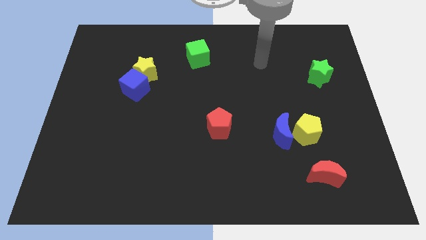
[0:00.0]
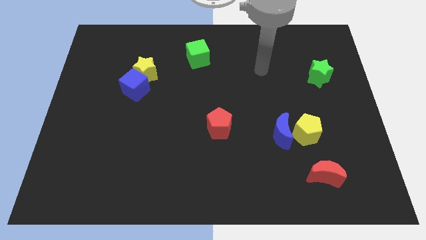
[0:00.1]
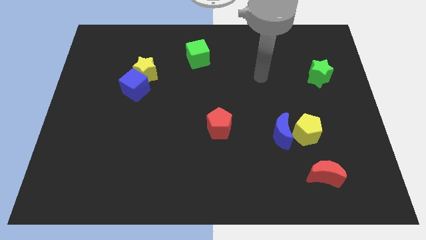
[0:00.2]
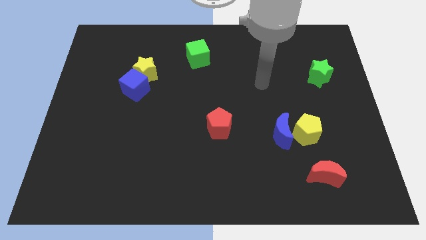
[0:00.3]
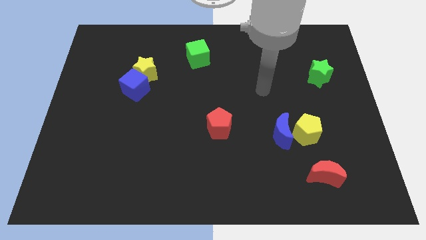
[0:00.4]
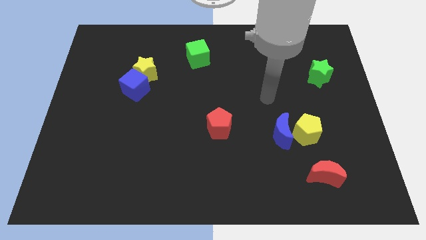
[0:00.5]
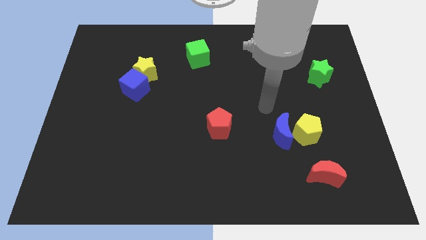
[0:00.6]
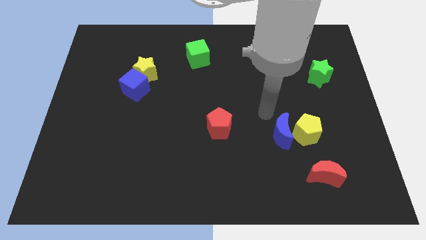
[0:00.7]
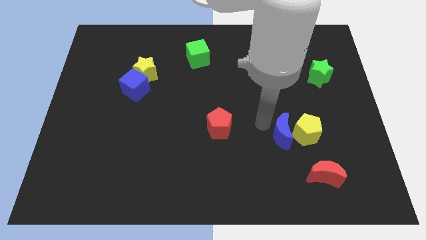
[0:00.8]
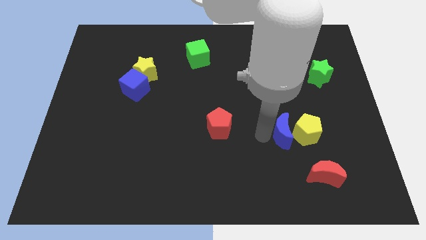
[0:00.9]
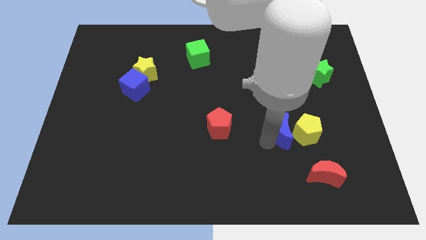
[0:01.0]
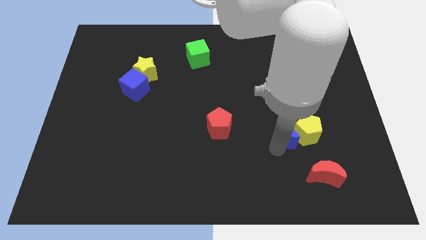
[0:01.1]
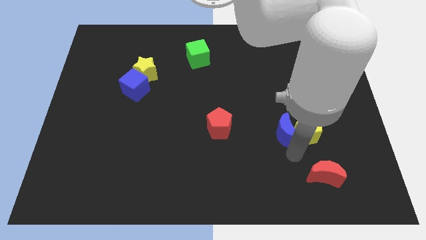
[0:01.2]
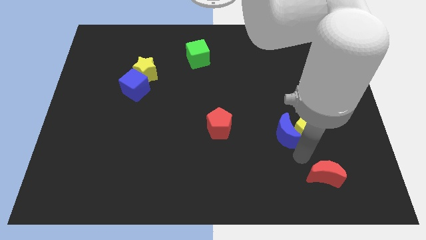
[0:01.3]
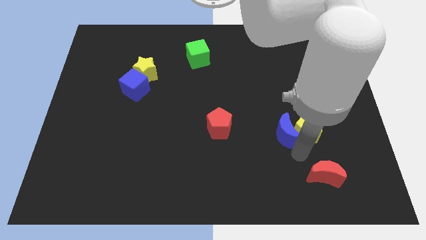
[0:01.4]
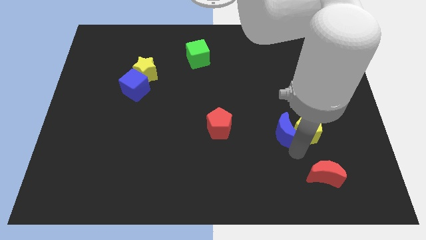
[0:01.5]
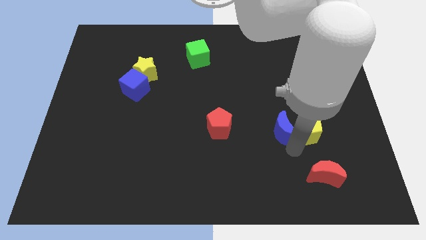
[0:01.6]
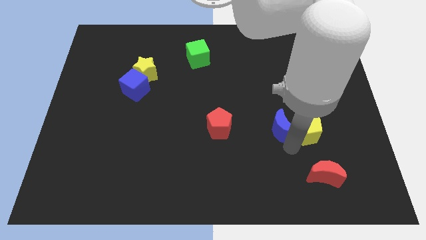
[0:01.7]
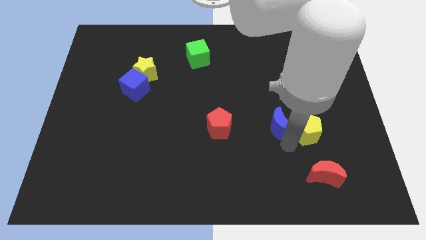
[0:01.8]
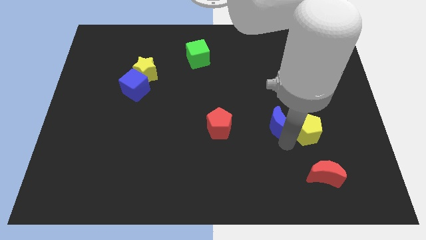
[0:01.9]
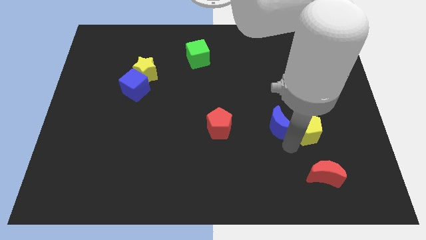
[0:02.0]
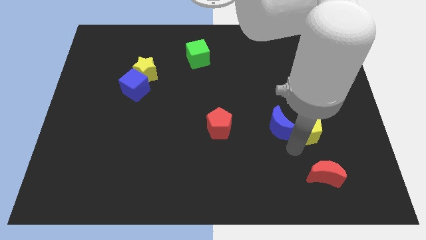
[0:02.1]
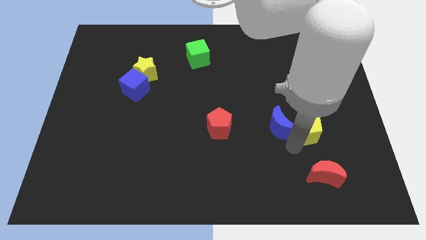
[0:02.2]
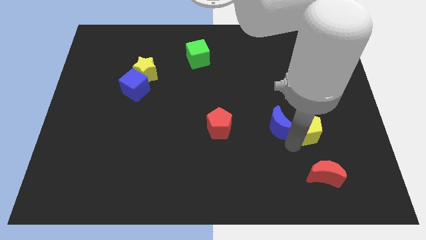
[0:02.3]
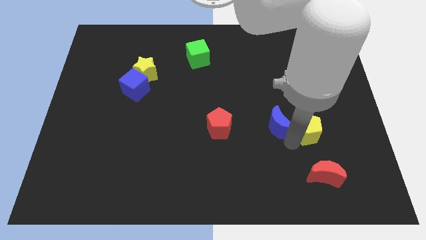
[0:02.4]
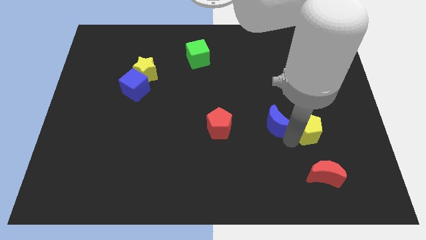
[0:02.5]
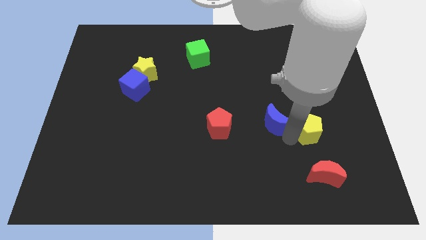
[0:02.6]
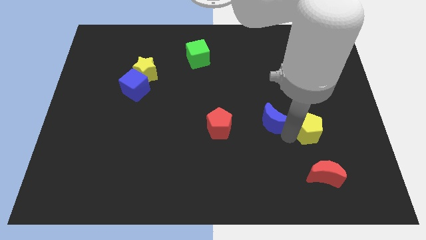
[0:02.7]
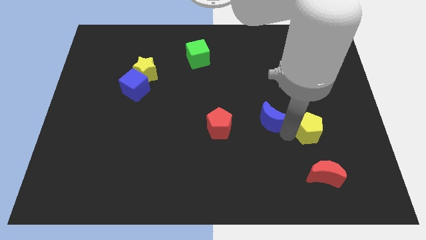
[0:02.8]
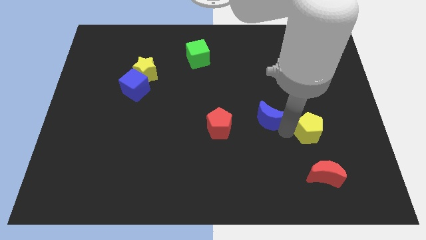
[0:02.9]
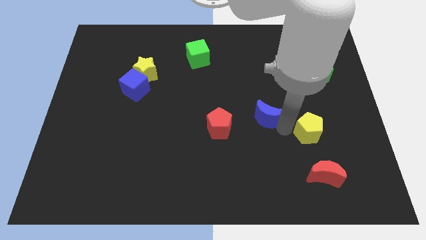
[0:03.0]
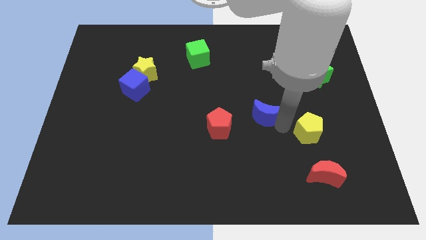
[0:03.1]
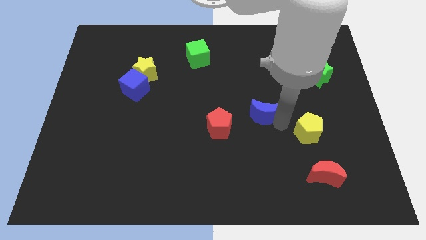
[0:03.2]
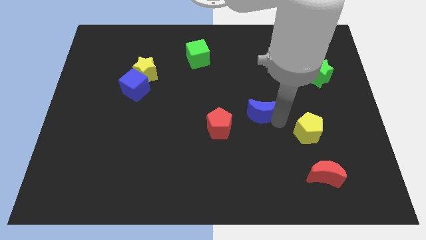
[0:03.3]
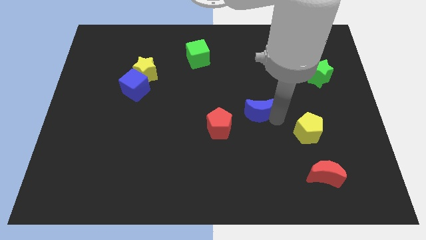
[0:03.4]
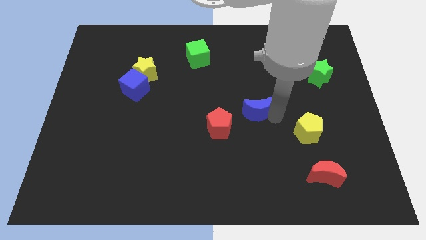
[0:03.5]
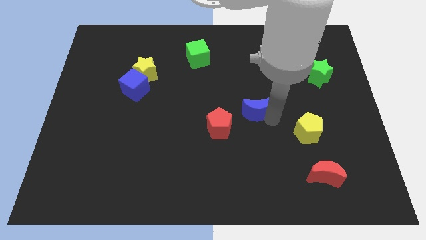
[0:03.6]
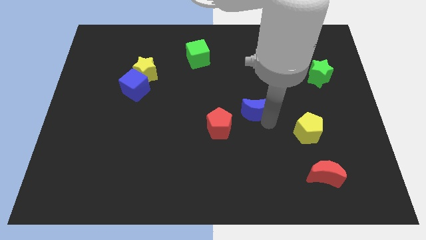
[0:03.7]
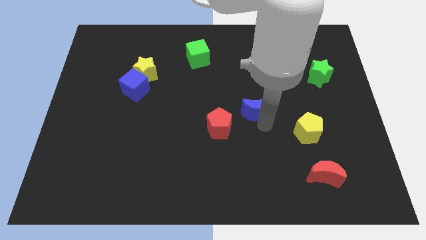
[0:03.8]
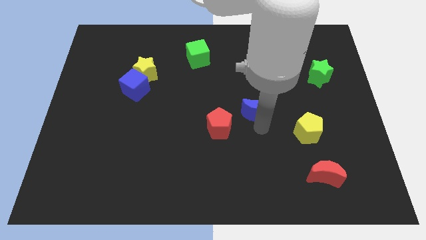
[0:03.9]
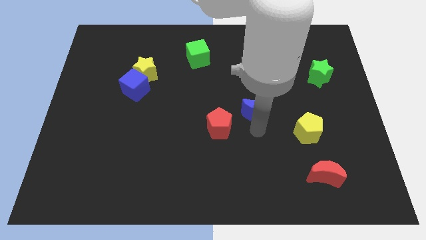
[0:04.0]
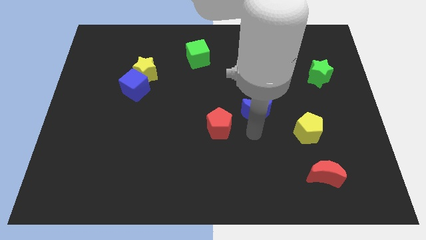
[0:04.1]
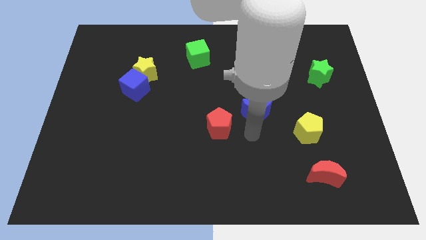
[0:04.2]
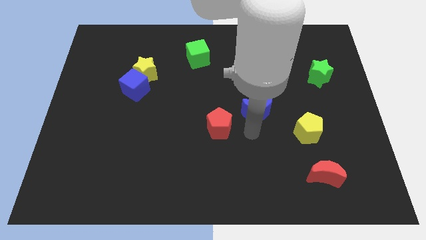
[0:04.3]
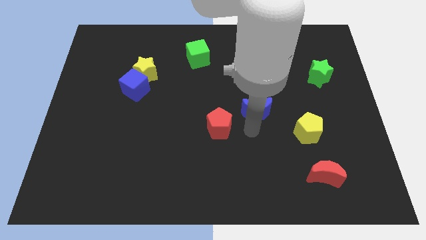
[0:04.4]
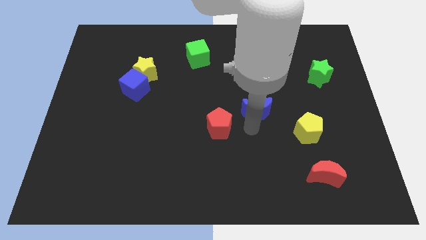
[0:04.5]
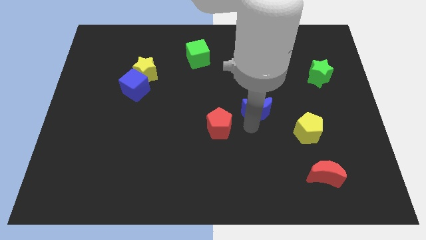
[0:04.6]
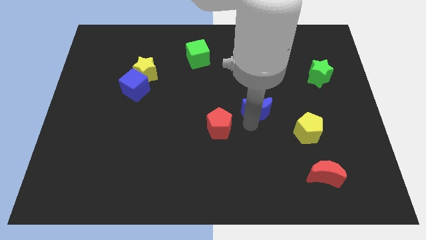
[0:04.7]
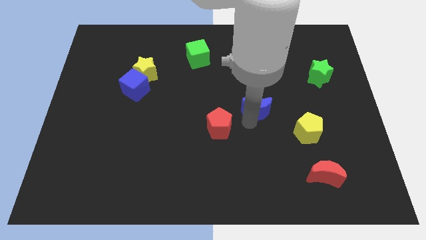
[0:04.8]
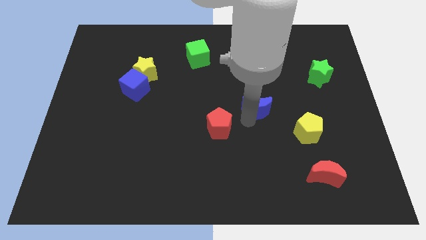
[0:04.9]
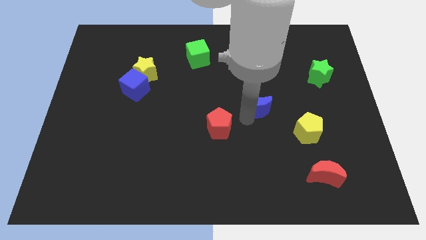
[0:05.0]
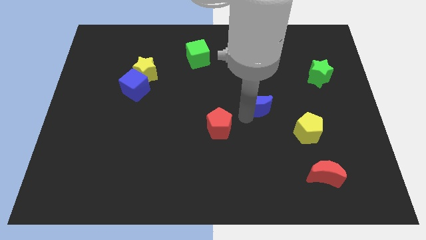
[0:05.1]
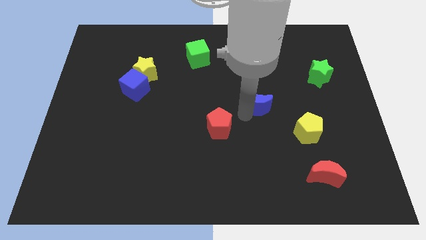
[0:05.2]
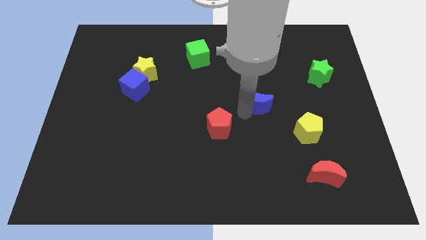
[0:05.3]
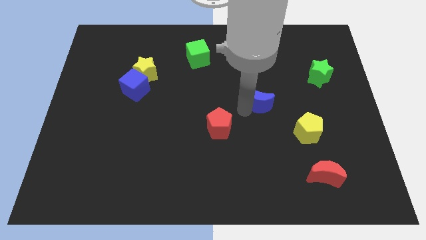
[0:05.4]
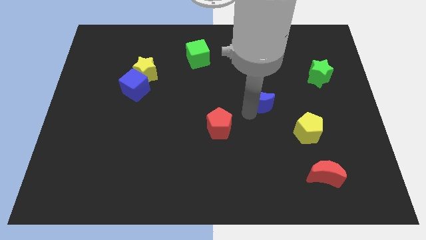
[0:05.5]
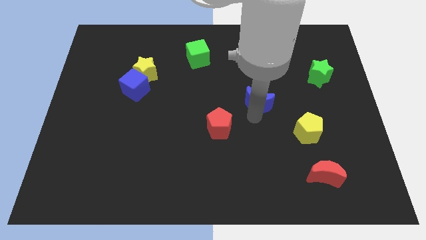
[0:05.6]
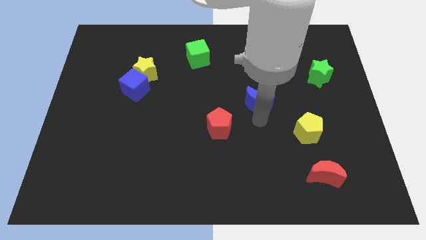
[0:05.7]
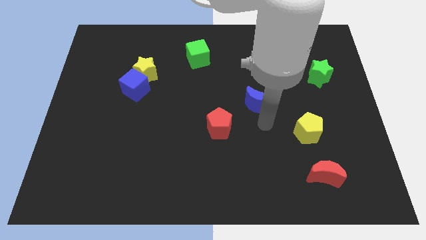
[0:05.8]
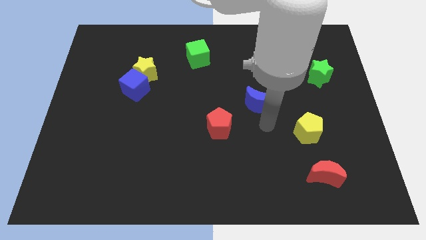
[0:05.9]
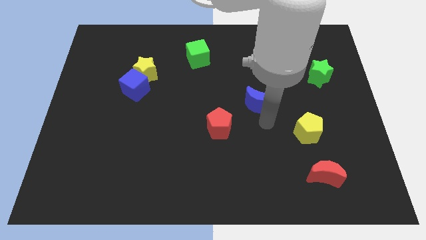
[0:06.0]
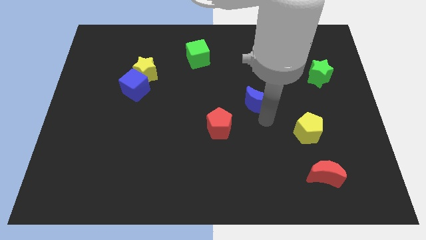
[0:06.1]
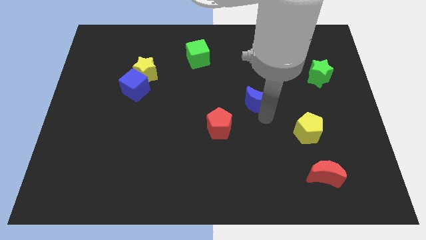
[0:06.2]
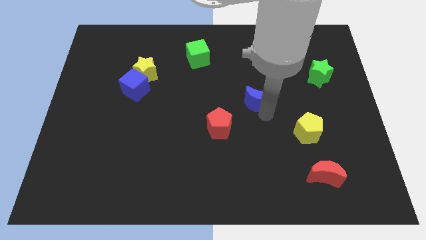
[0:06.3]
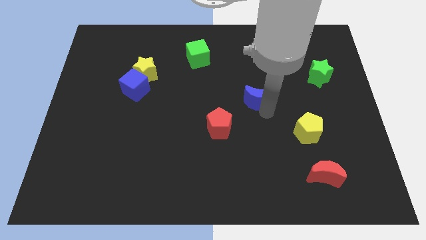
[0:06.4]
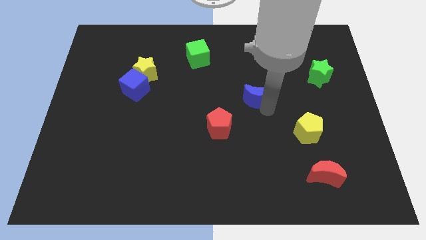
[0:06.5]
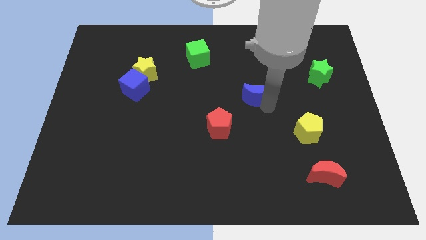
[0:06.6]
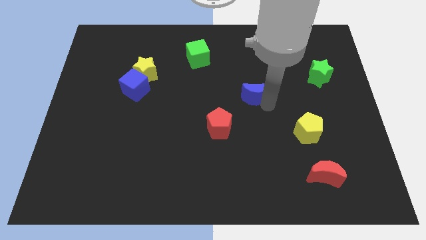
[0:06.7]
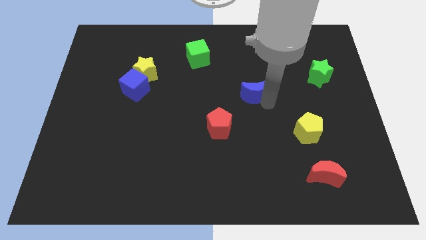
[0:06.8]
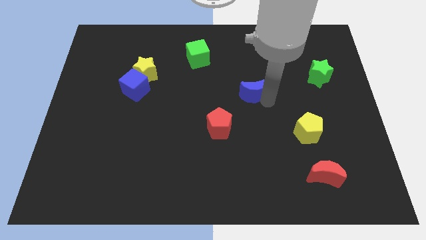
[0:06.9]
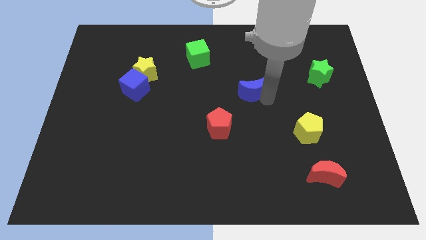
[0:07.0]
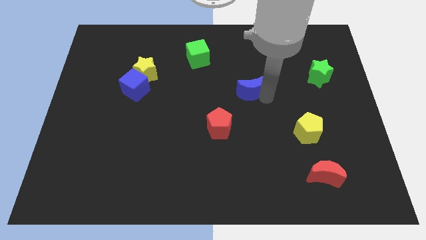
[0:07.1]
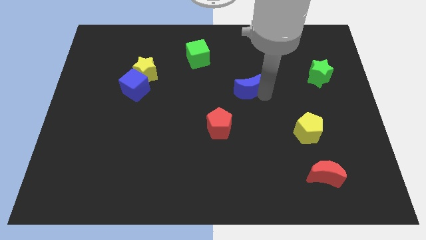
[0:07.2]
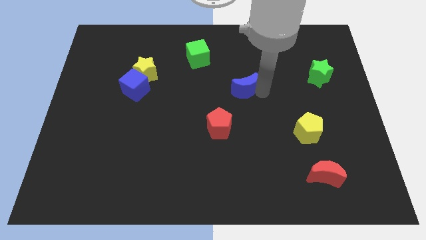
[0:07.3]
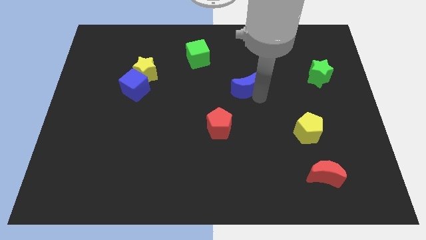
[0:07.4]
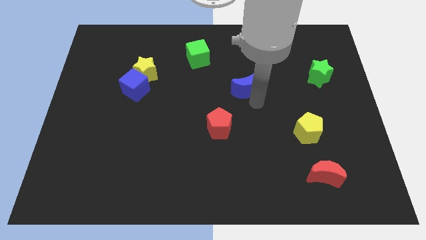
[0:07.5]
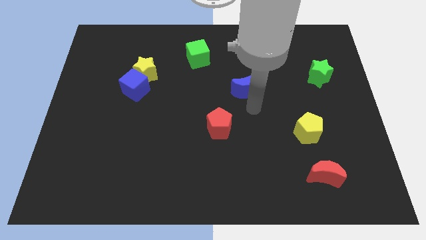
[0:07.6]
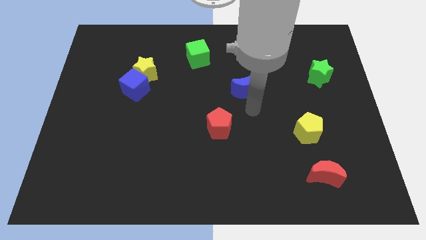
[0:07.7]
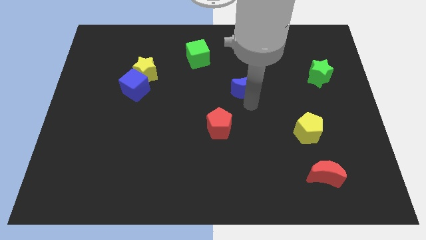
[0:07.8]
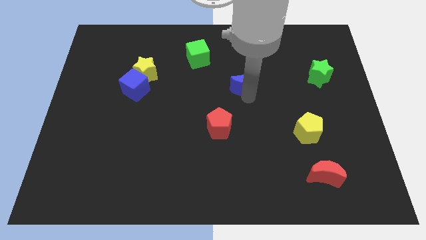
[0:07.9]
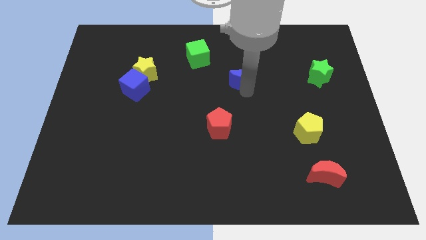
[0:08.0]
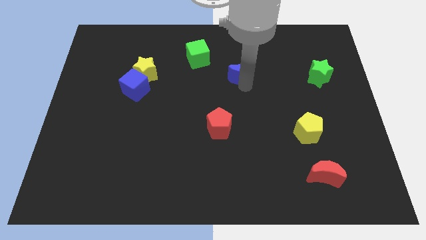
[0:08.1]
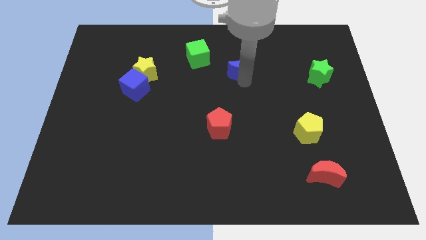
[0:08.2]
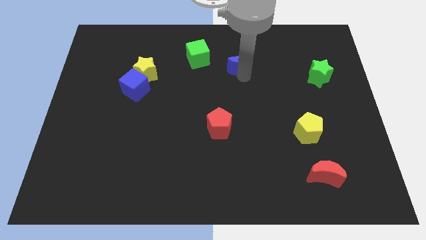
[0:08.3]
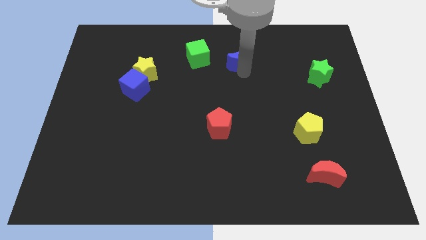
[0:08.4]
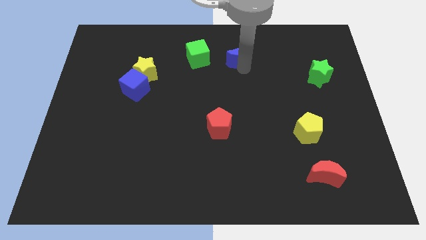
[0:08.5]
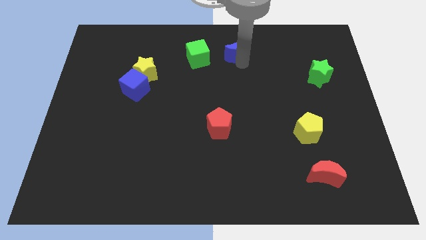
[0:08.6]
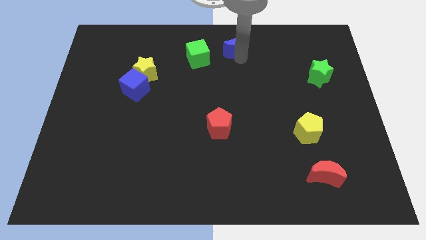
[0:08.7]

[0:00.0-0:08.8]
put the blue moon to the top side
